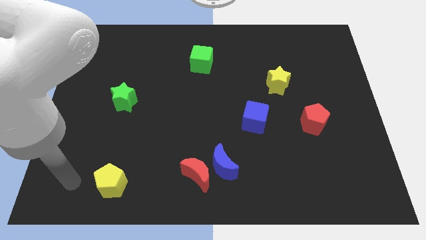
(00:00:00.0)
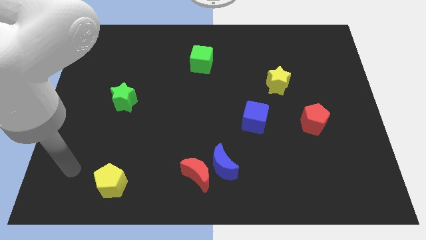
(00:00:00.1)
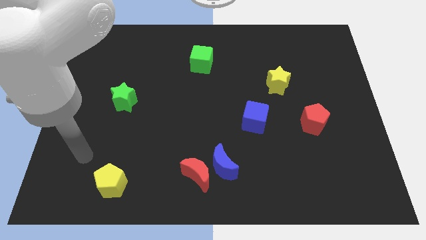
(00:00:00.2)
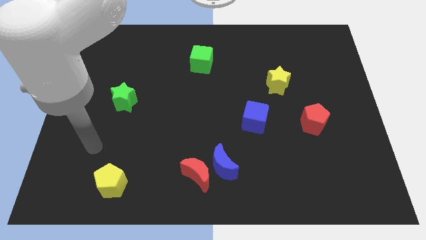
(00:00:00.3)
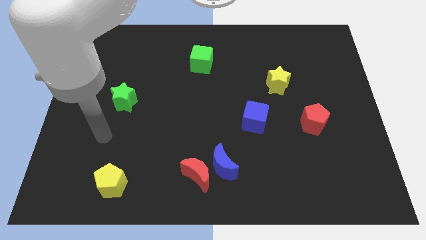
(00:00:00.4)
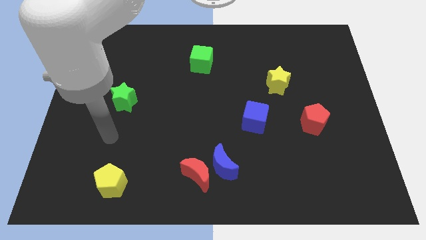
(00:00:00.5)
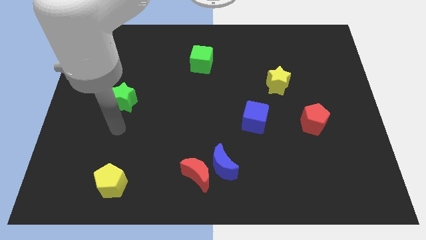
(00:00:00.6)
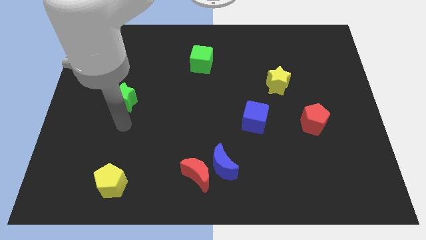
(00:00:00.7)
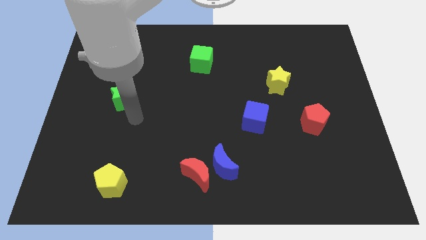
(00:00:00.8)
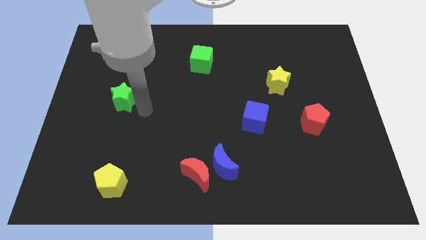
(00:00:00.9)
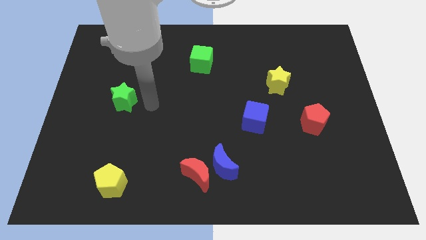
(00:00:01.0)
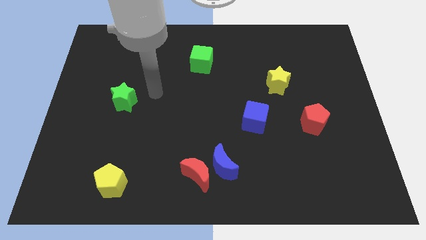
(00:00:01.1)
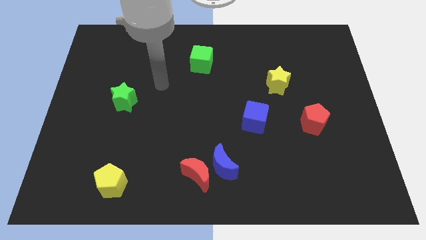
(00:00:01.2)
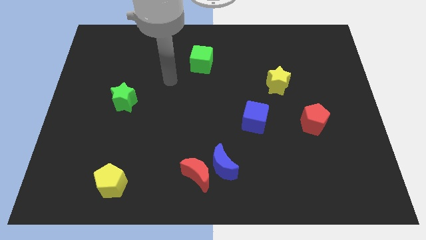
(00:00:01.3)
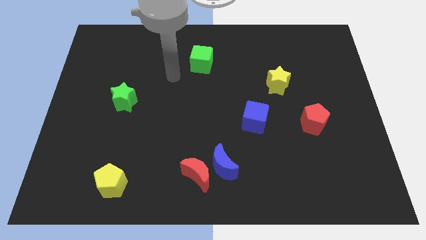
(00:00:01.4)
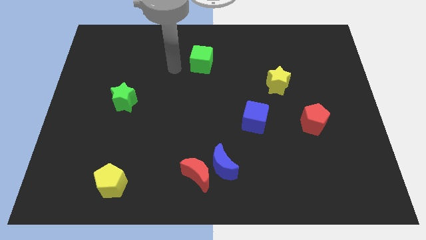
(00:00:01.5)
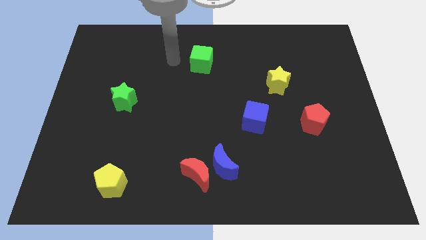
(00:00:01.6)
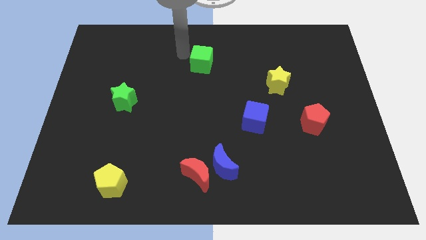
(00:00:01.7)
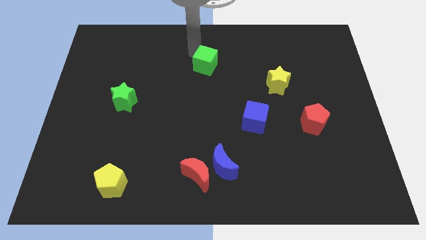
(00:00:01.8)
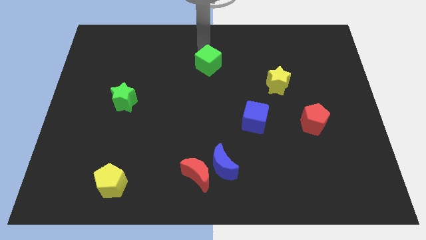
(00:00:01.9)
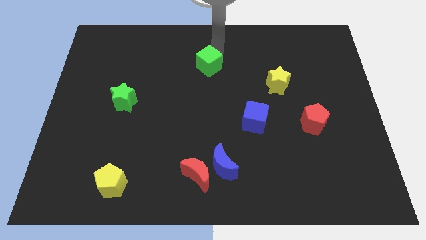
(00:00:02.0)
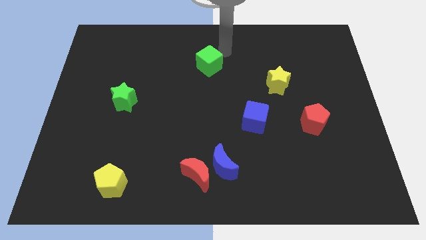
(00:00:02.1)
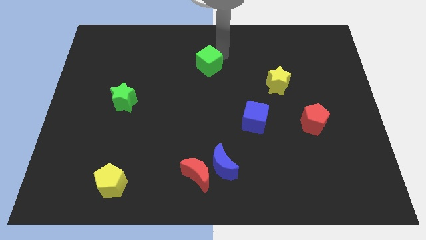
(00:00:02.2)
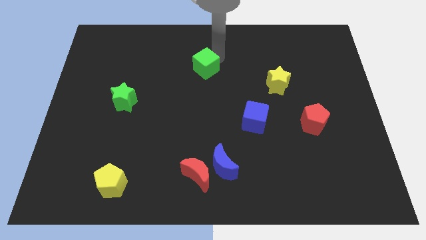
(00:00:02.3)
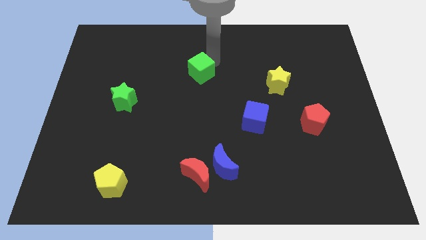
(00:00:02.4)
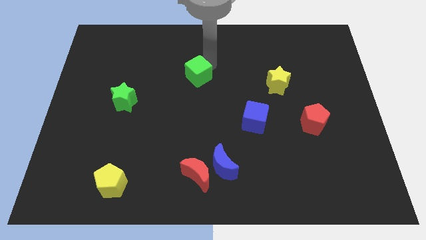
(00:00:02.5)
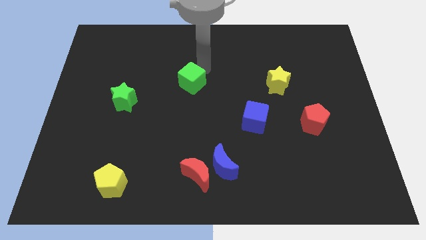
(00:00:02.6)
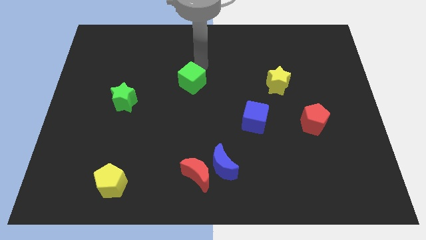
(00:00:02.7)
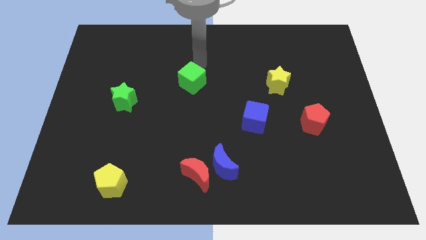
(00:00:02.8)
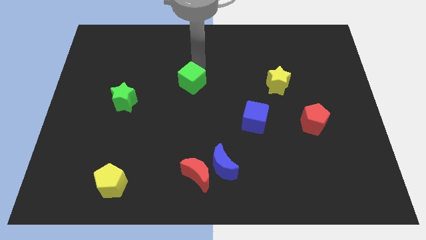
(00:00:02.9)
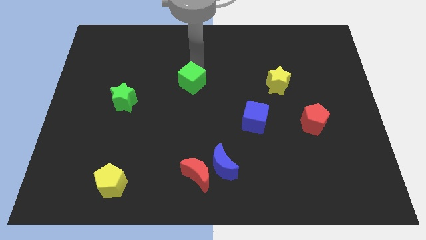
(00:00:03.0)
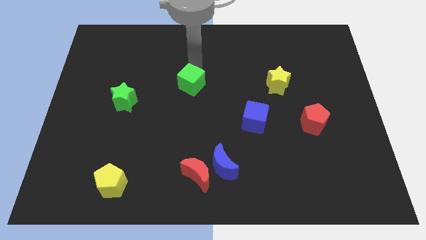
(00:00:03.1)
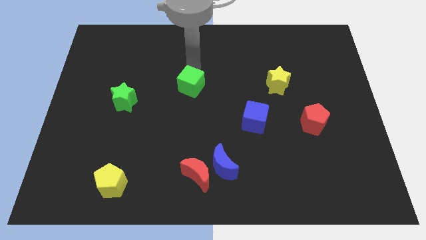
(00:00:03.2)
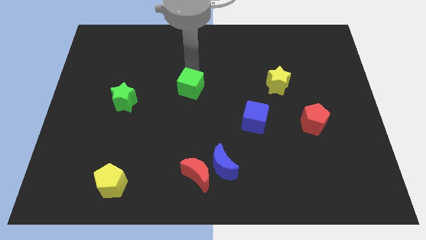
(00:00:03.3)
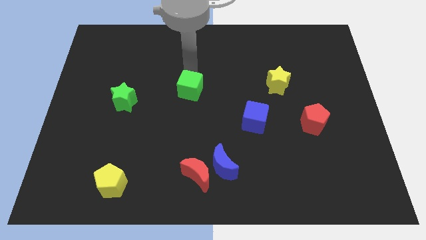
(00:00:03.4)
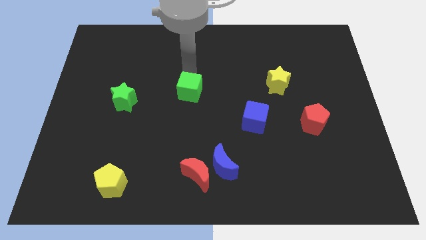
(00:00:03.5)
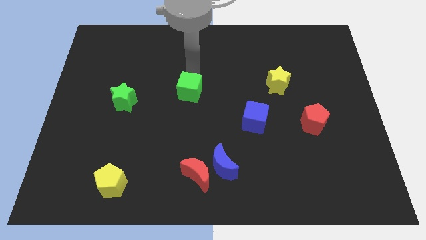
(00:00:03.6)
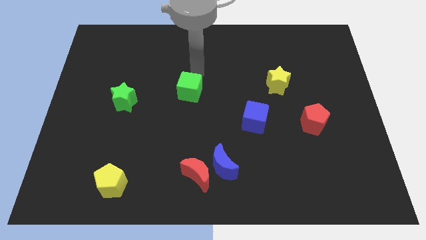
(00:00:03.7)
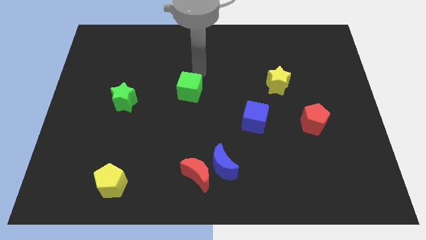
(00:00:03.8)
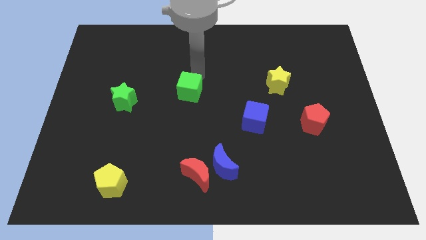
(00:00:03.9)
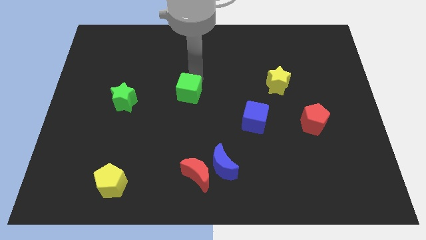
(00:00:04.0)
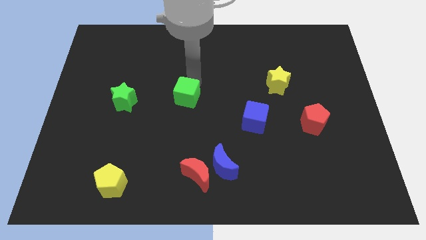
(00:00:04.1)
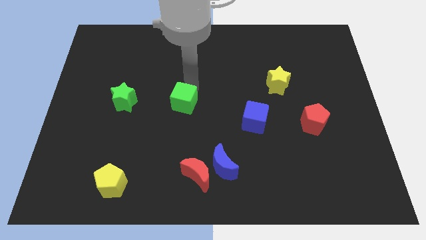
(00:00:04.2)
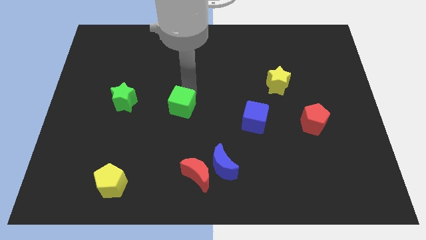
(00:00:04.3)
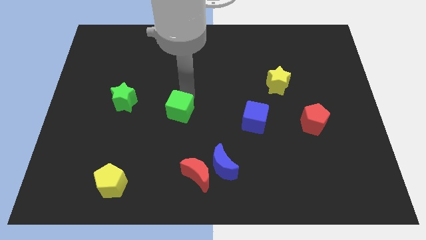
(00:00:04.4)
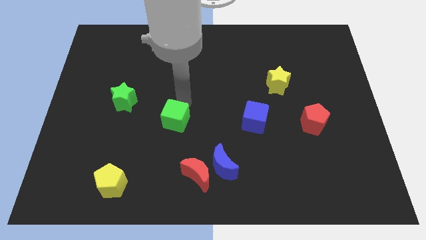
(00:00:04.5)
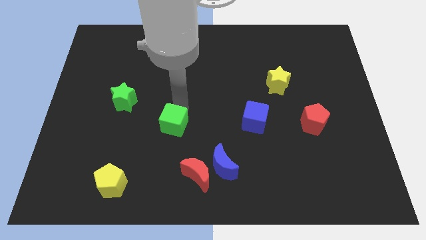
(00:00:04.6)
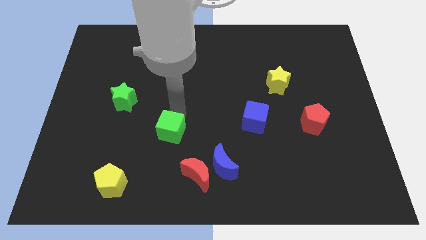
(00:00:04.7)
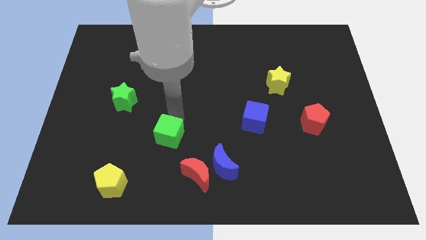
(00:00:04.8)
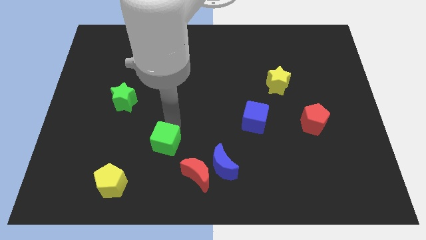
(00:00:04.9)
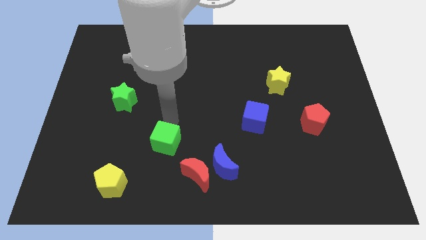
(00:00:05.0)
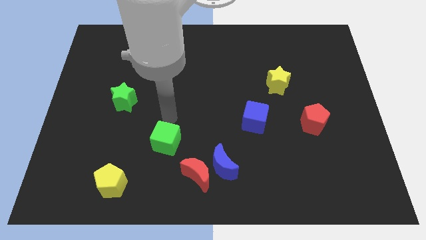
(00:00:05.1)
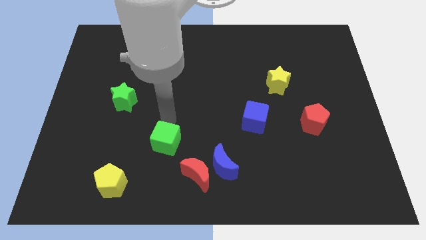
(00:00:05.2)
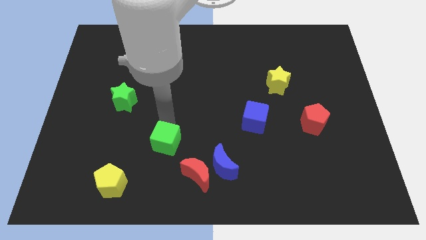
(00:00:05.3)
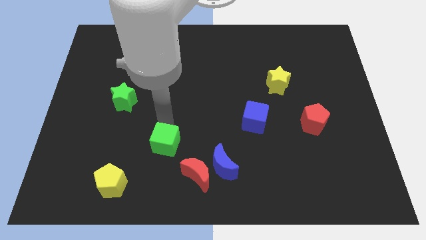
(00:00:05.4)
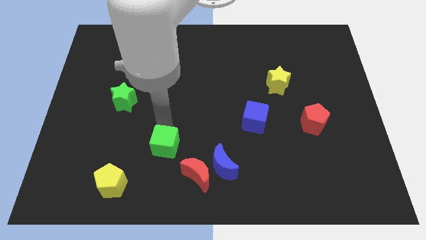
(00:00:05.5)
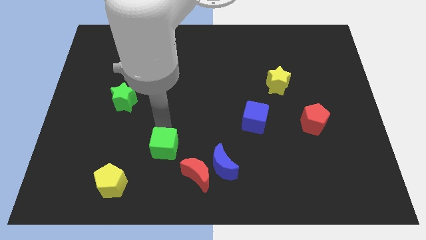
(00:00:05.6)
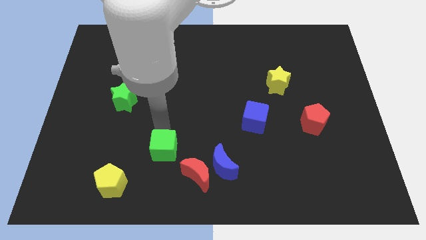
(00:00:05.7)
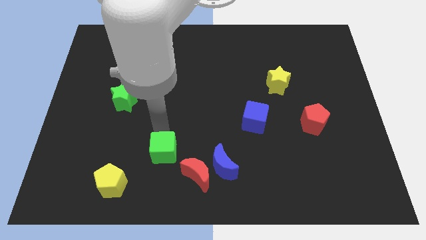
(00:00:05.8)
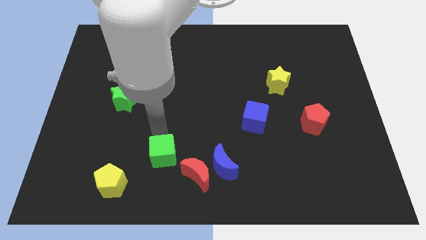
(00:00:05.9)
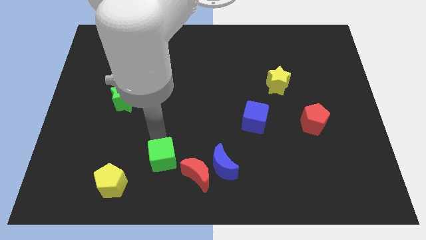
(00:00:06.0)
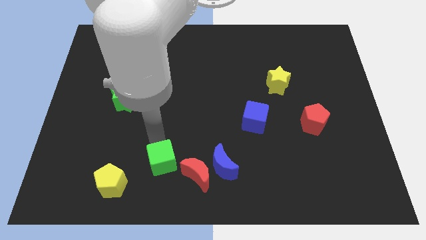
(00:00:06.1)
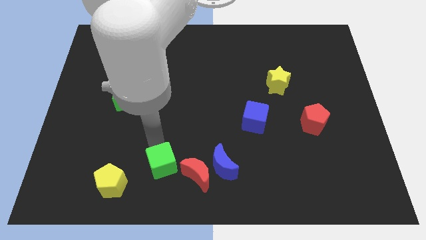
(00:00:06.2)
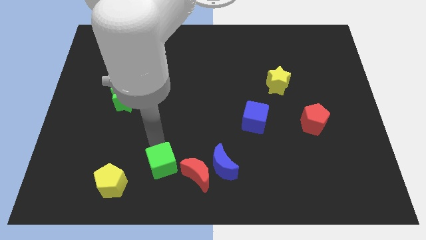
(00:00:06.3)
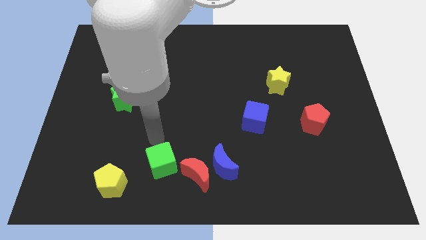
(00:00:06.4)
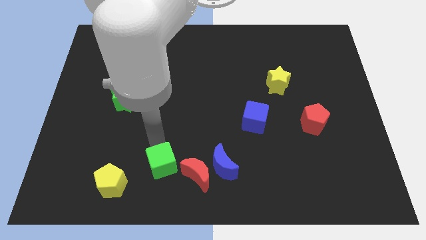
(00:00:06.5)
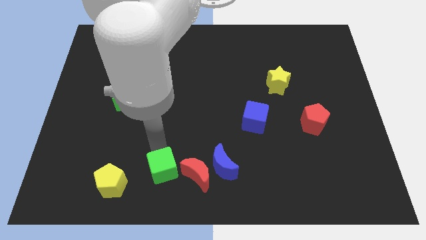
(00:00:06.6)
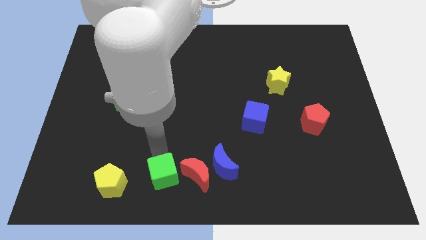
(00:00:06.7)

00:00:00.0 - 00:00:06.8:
slide the green cube to the bottom
